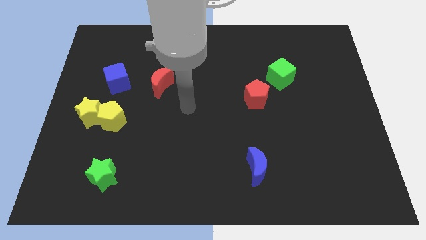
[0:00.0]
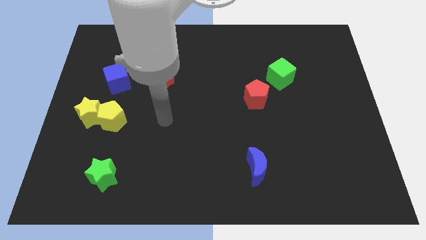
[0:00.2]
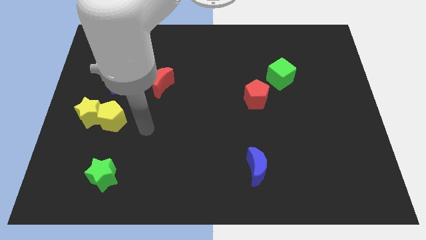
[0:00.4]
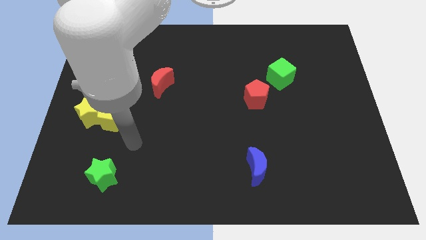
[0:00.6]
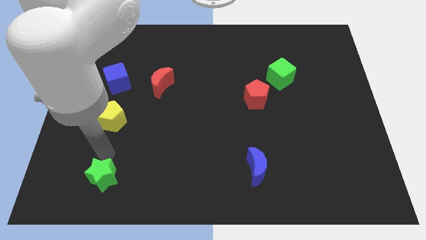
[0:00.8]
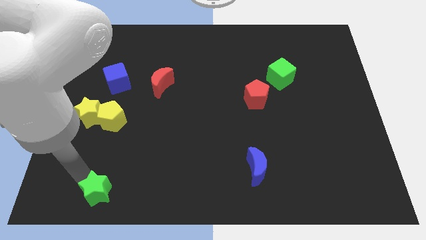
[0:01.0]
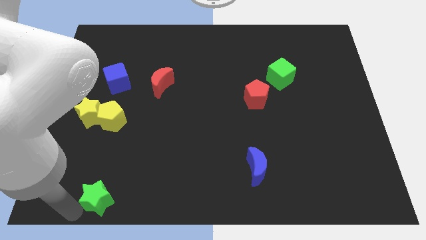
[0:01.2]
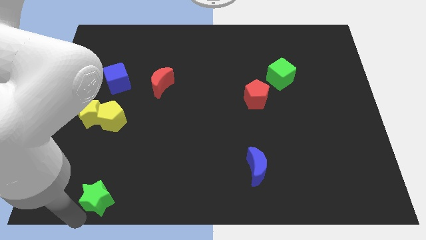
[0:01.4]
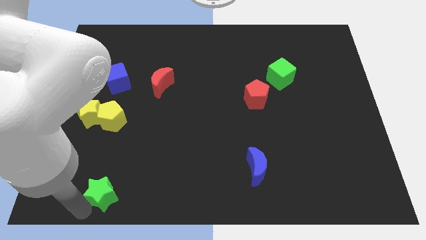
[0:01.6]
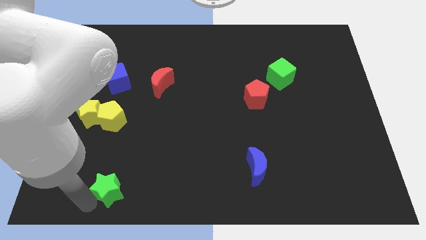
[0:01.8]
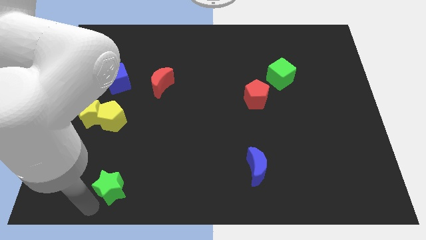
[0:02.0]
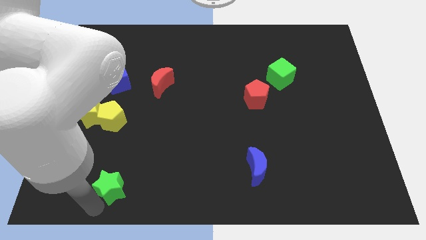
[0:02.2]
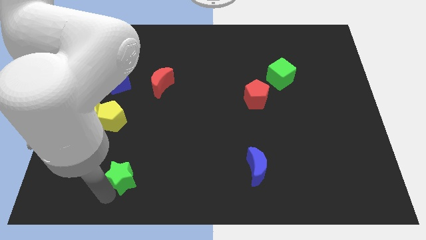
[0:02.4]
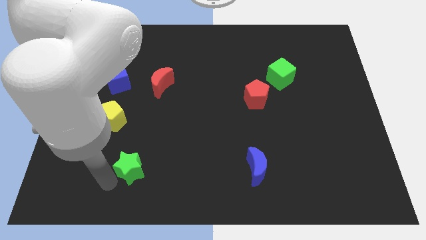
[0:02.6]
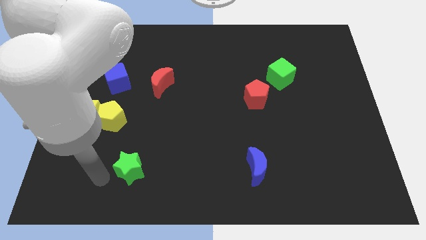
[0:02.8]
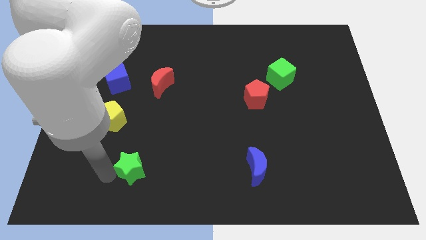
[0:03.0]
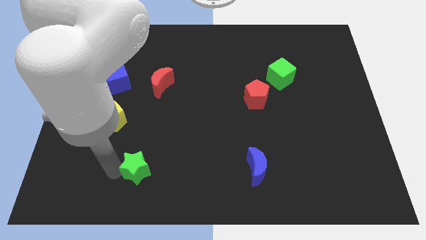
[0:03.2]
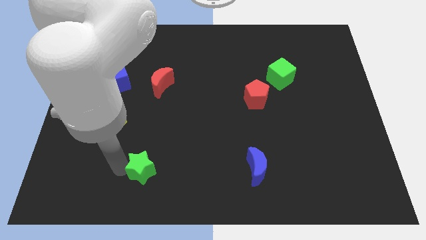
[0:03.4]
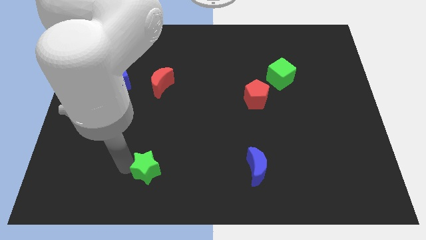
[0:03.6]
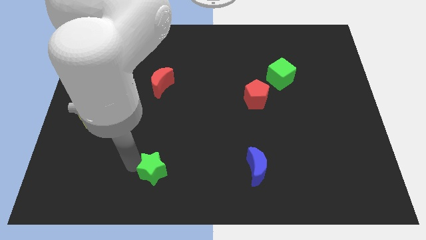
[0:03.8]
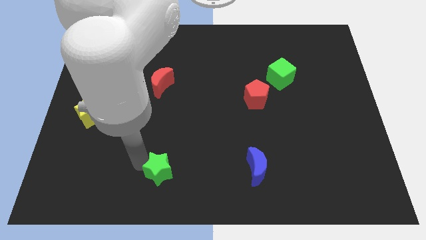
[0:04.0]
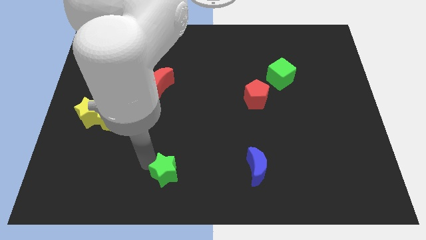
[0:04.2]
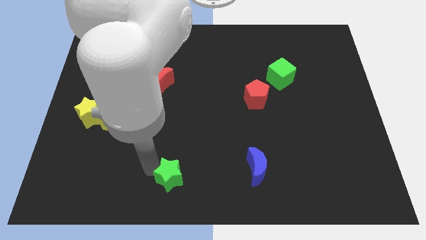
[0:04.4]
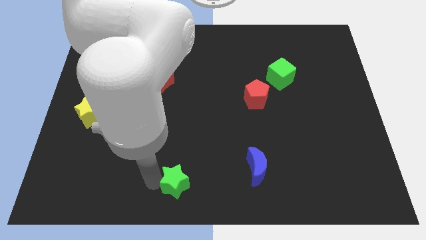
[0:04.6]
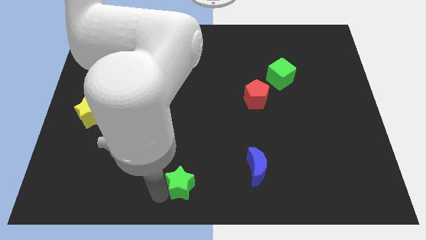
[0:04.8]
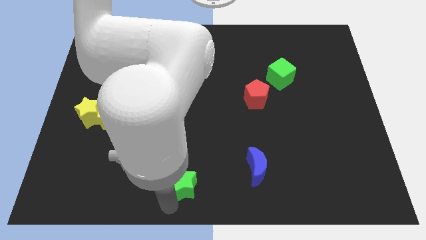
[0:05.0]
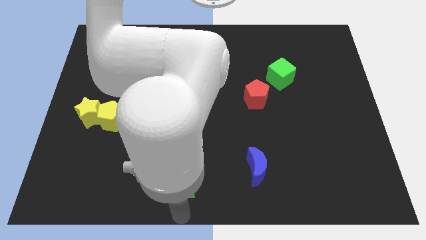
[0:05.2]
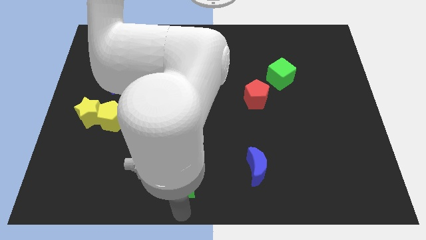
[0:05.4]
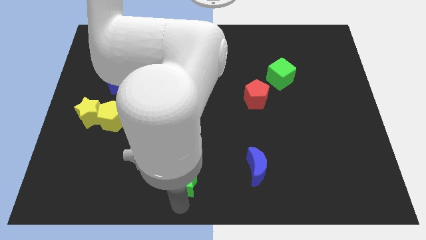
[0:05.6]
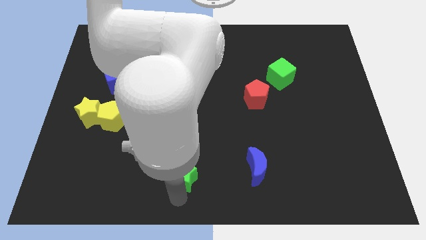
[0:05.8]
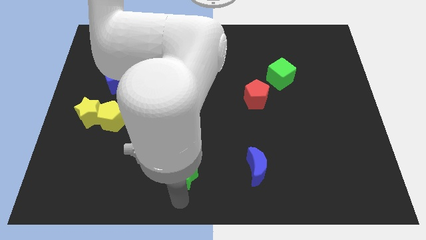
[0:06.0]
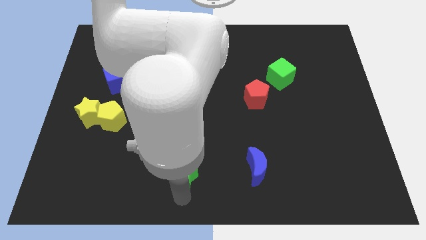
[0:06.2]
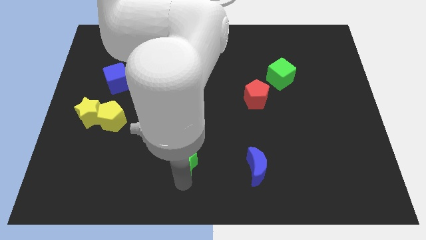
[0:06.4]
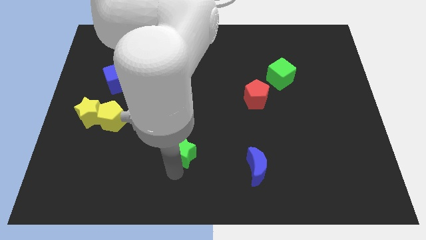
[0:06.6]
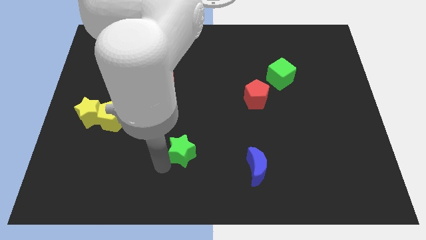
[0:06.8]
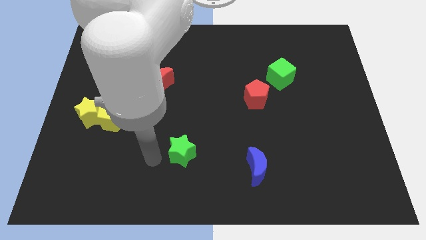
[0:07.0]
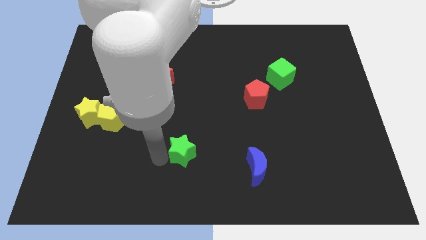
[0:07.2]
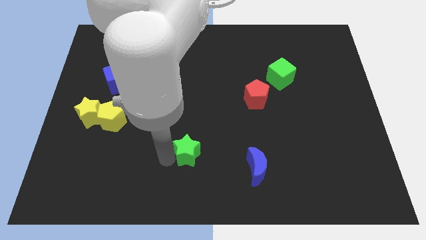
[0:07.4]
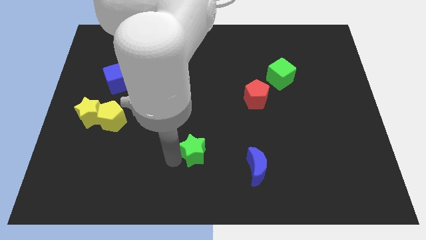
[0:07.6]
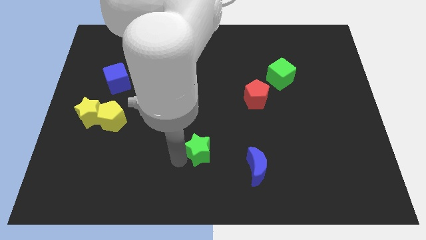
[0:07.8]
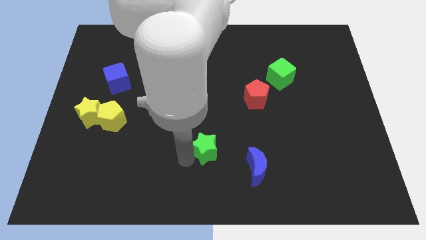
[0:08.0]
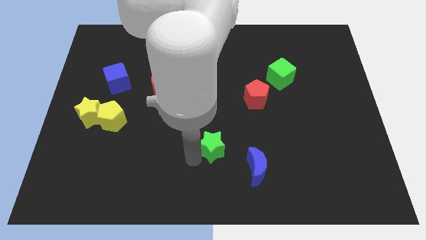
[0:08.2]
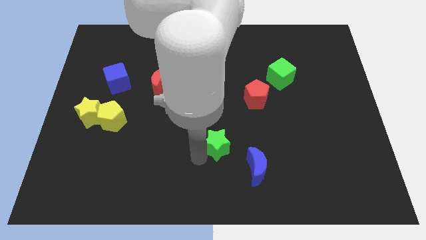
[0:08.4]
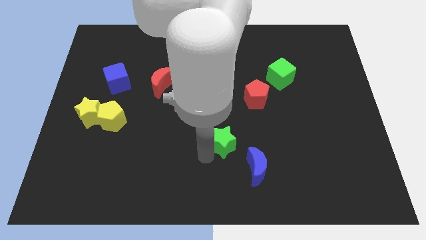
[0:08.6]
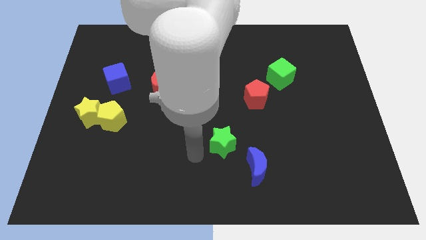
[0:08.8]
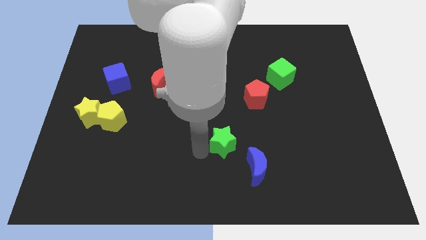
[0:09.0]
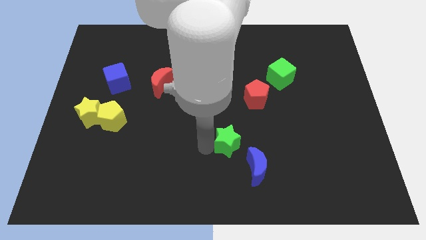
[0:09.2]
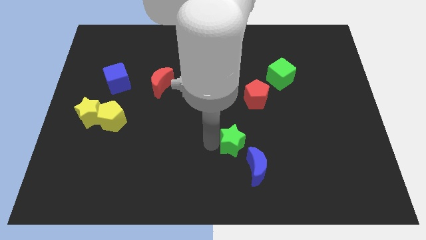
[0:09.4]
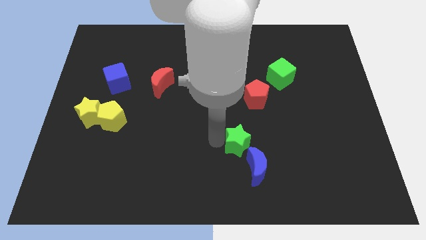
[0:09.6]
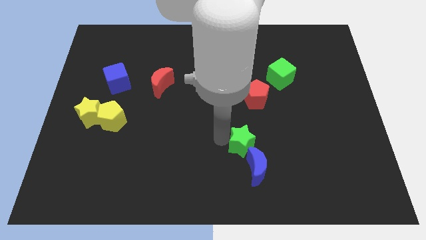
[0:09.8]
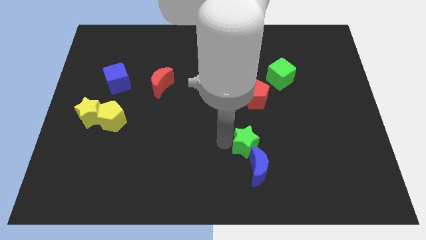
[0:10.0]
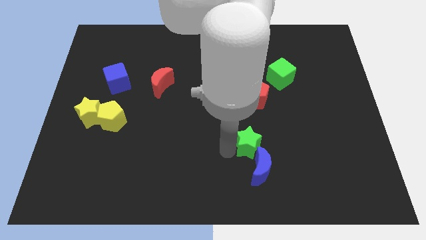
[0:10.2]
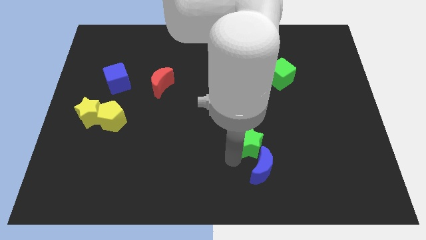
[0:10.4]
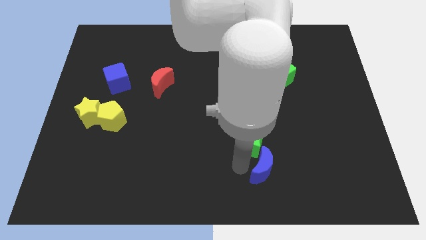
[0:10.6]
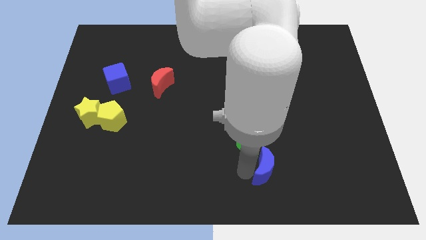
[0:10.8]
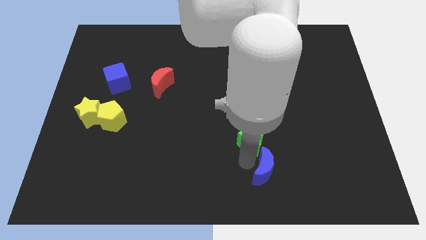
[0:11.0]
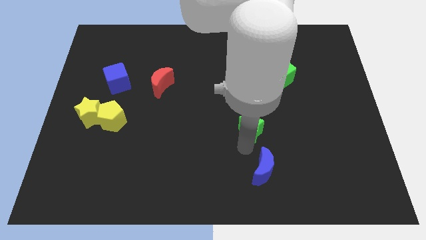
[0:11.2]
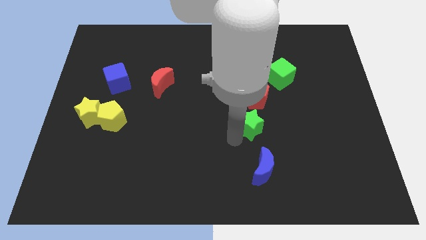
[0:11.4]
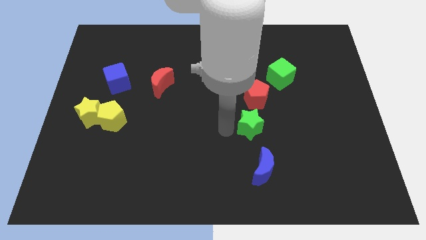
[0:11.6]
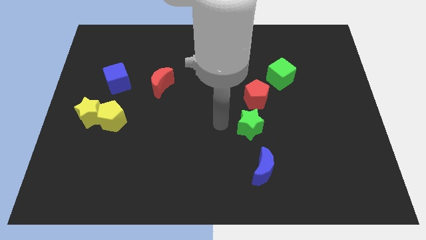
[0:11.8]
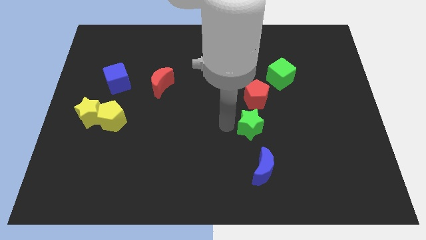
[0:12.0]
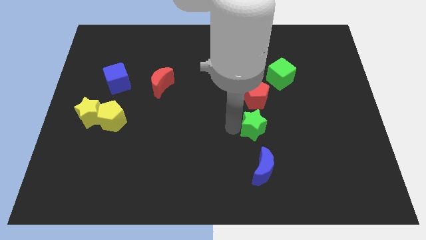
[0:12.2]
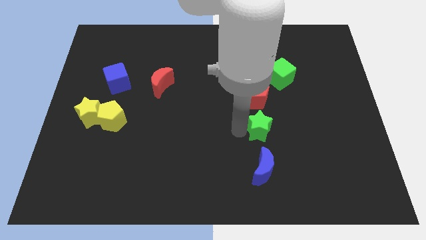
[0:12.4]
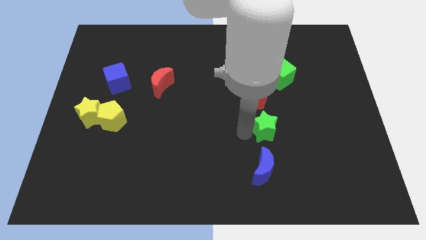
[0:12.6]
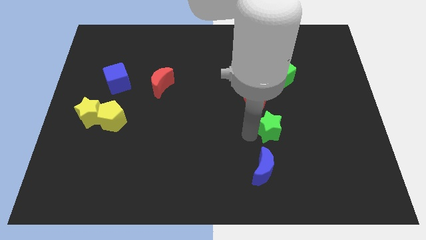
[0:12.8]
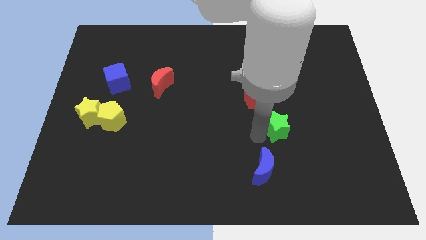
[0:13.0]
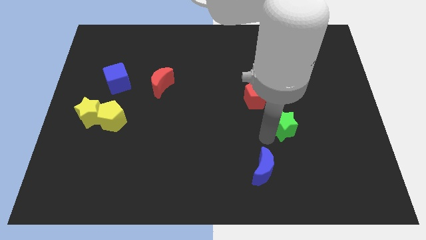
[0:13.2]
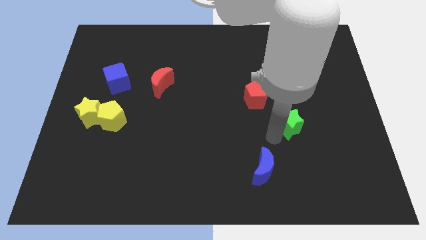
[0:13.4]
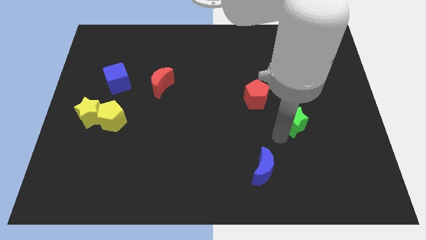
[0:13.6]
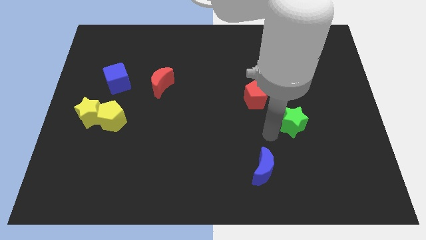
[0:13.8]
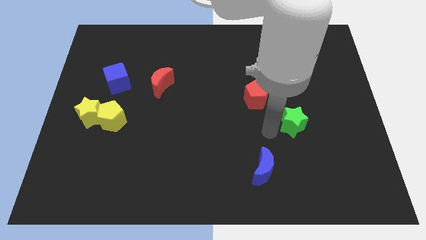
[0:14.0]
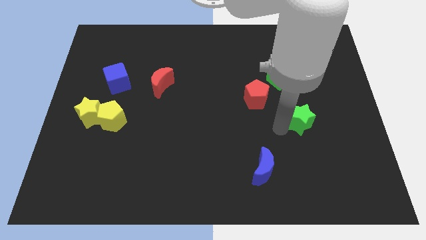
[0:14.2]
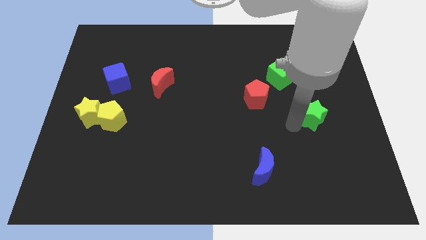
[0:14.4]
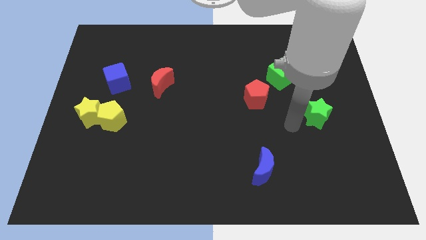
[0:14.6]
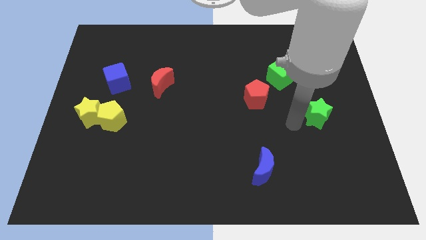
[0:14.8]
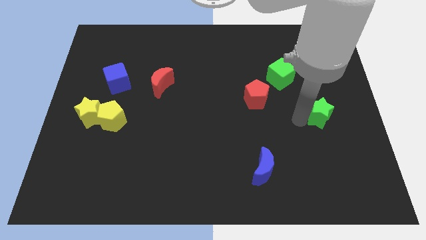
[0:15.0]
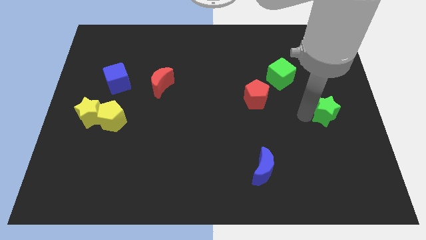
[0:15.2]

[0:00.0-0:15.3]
push the green star to the center right

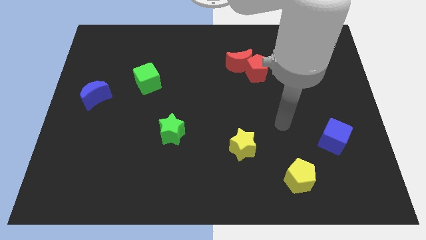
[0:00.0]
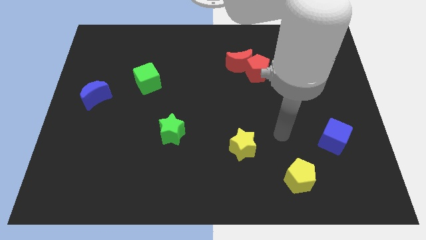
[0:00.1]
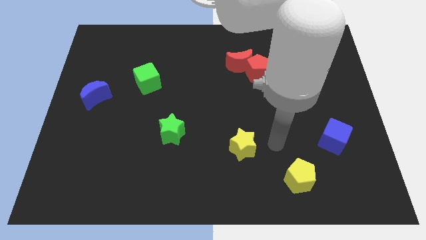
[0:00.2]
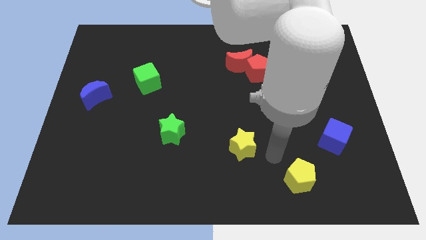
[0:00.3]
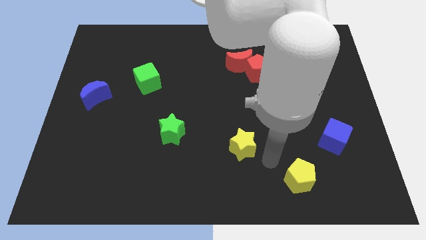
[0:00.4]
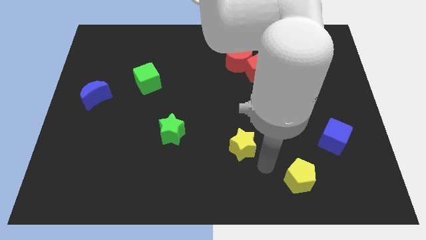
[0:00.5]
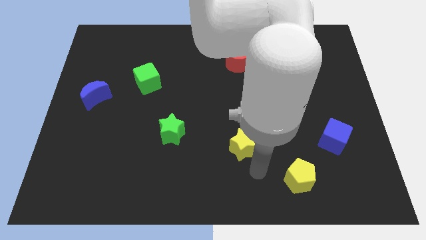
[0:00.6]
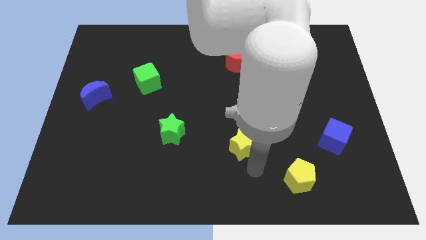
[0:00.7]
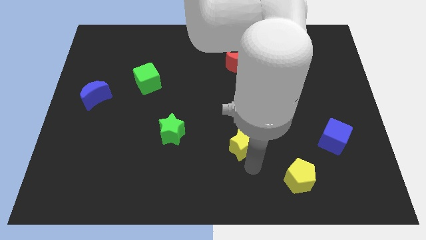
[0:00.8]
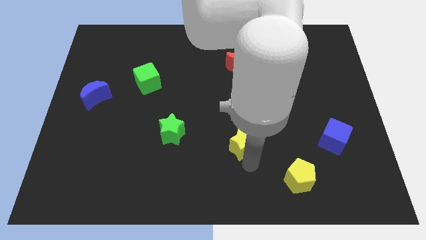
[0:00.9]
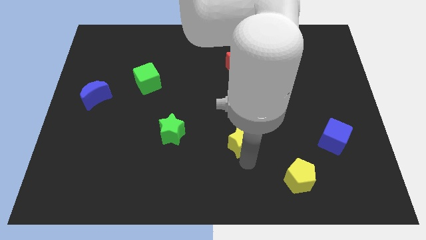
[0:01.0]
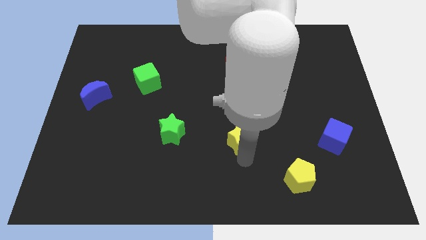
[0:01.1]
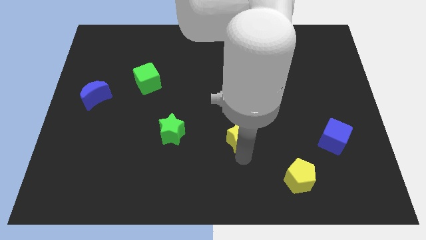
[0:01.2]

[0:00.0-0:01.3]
put the yellow star to the center of the board
